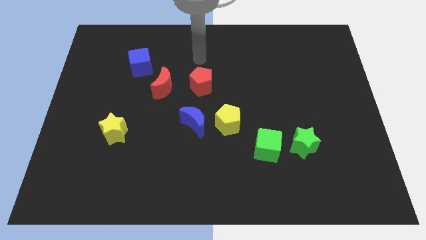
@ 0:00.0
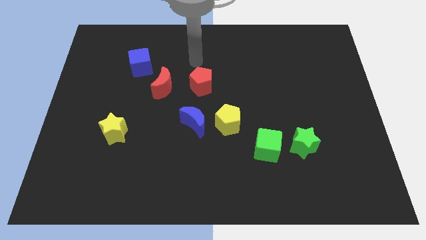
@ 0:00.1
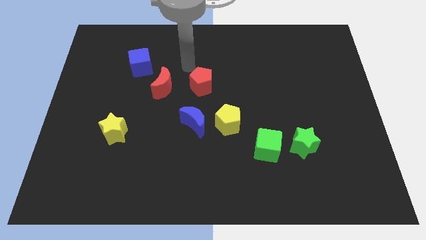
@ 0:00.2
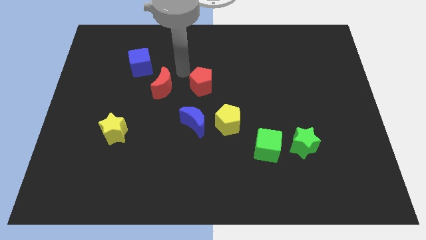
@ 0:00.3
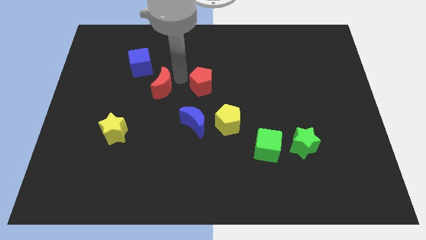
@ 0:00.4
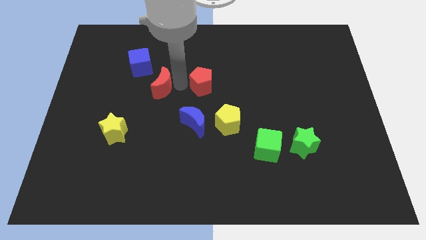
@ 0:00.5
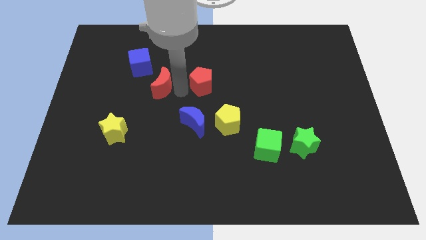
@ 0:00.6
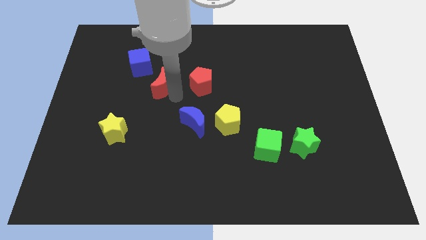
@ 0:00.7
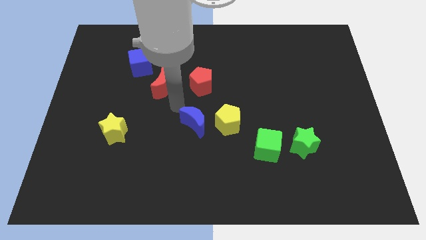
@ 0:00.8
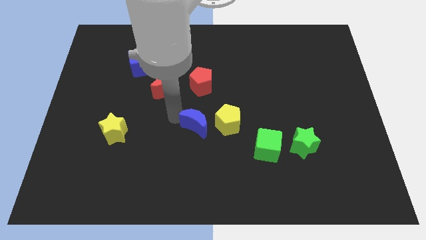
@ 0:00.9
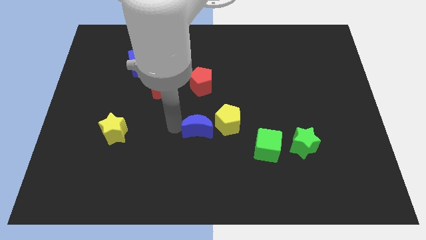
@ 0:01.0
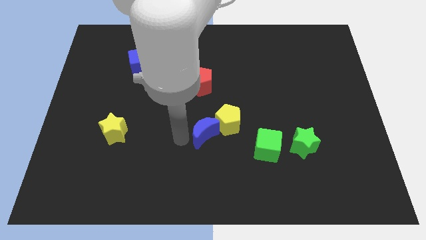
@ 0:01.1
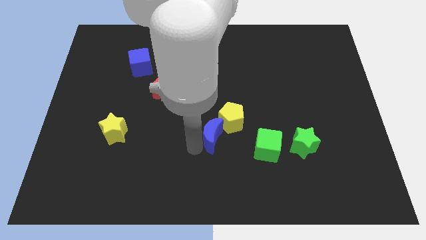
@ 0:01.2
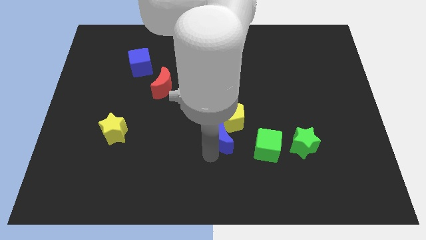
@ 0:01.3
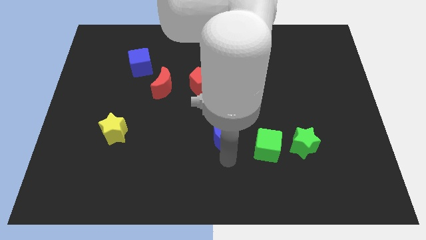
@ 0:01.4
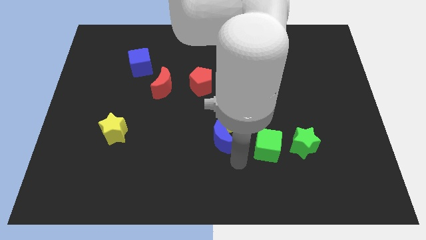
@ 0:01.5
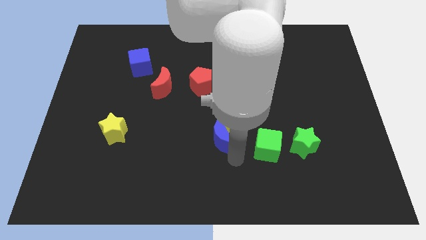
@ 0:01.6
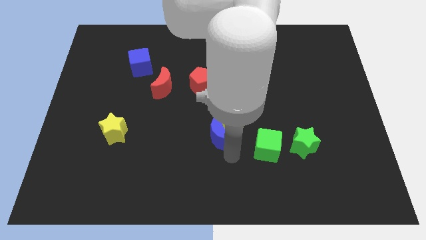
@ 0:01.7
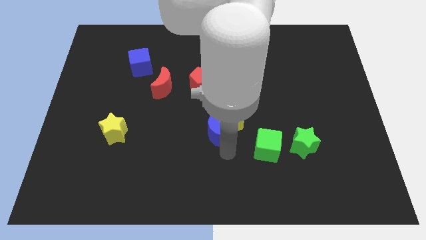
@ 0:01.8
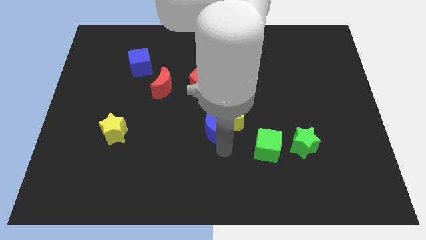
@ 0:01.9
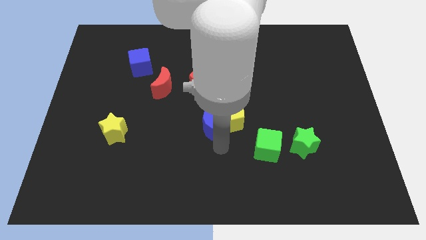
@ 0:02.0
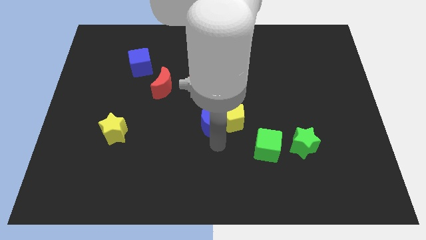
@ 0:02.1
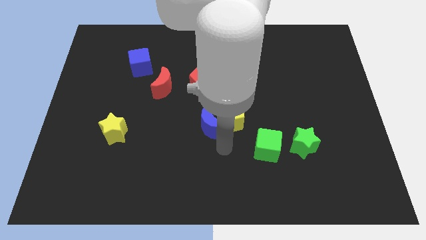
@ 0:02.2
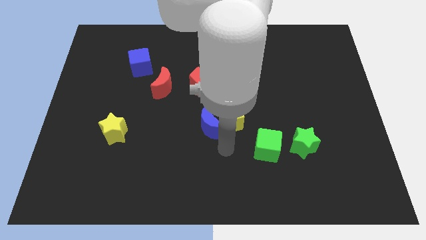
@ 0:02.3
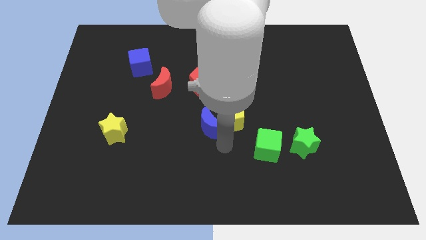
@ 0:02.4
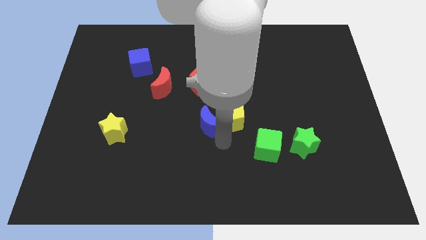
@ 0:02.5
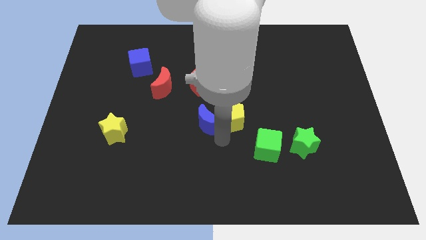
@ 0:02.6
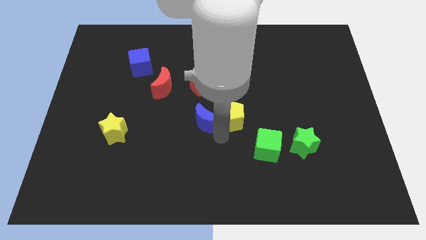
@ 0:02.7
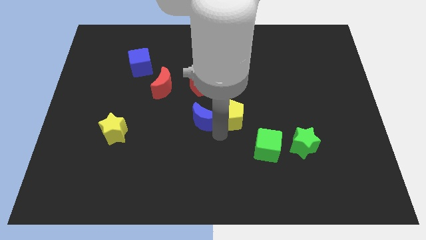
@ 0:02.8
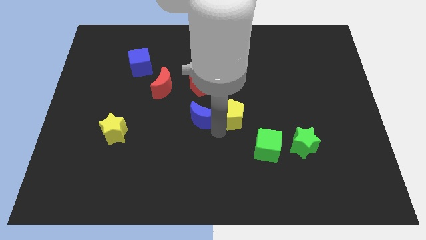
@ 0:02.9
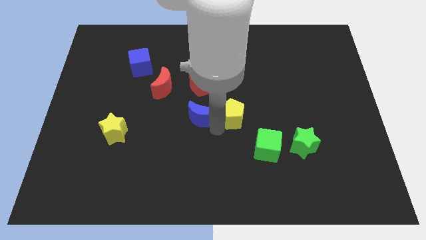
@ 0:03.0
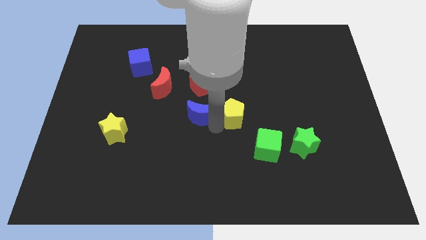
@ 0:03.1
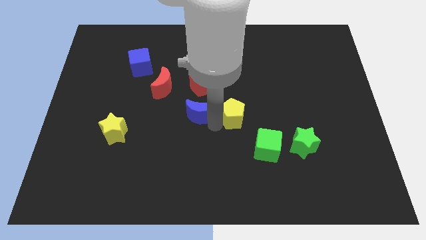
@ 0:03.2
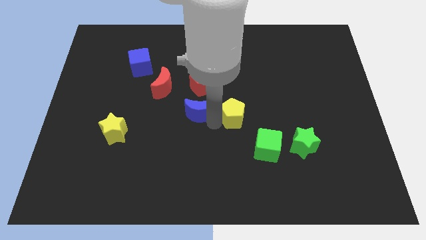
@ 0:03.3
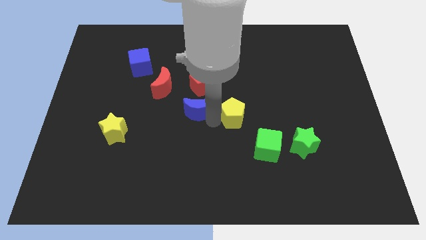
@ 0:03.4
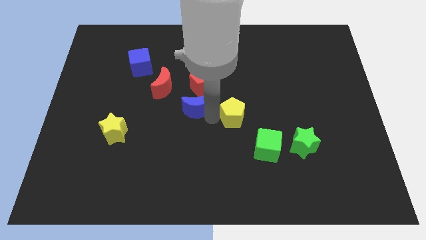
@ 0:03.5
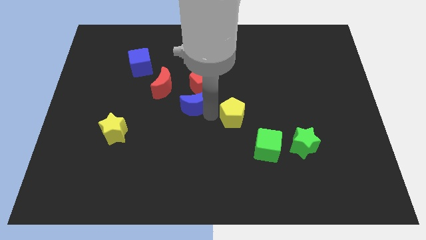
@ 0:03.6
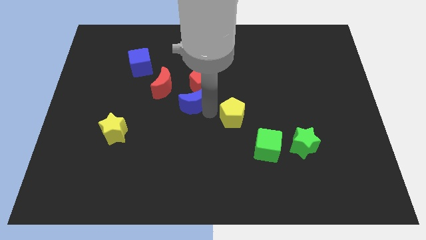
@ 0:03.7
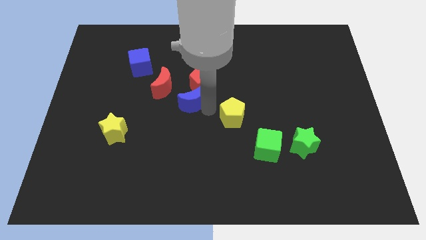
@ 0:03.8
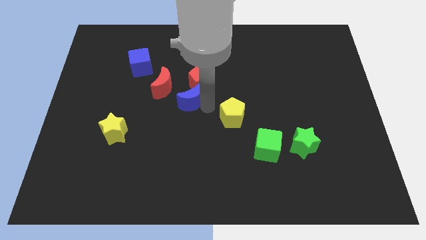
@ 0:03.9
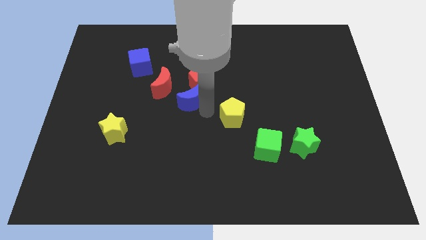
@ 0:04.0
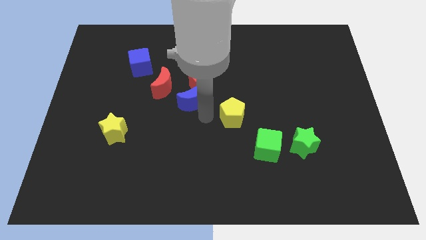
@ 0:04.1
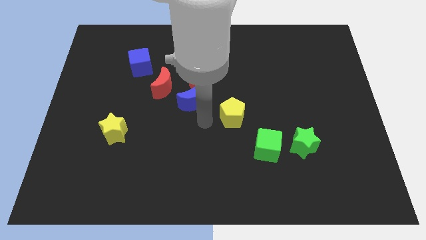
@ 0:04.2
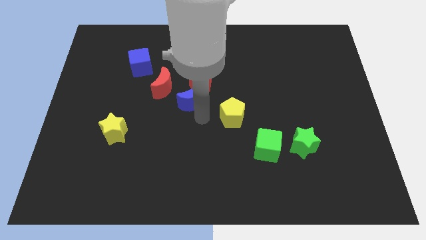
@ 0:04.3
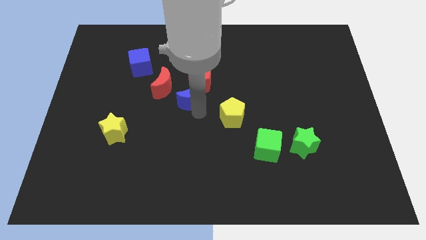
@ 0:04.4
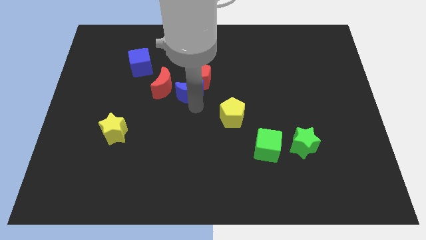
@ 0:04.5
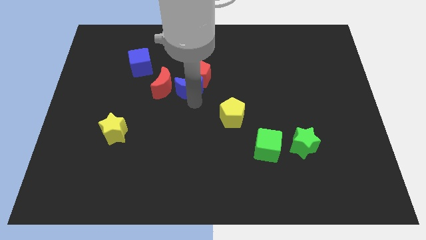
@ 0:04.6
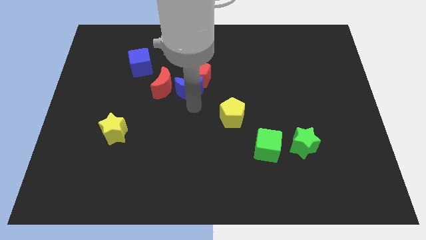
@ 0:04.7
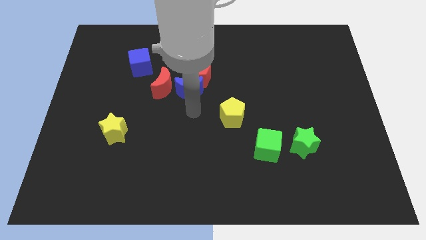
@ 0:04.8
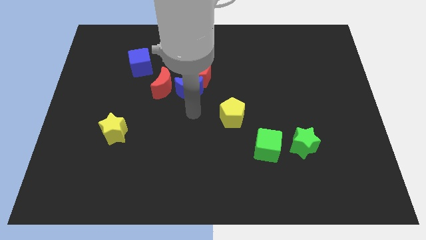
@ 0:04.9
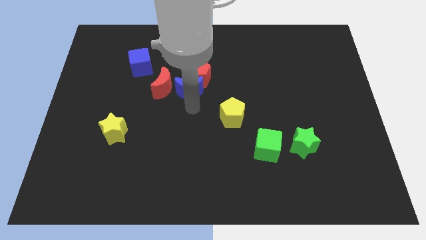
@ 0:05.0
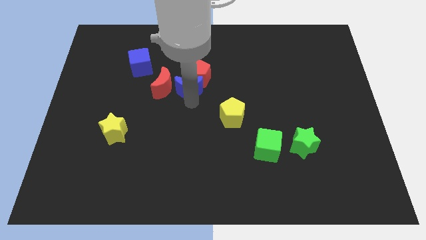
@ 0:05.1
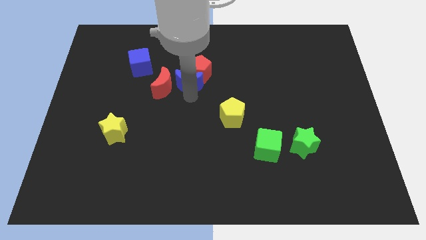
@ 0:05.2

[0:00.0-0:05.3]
push the blue moon diagonally up and to the right of the red moon

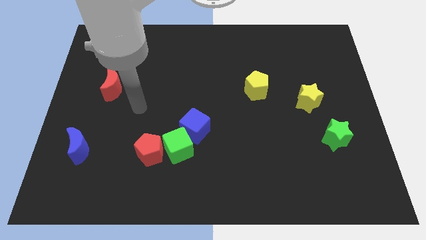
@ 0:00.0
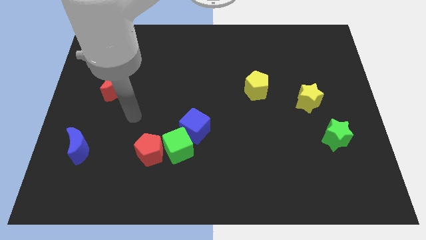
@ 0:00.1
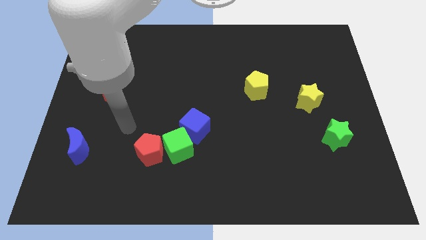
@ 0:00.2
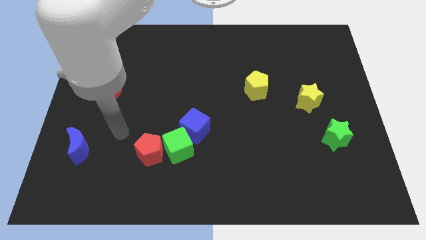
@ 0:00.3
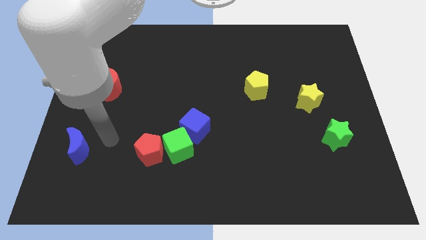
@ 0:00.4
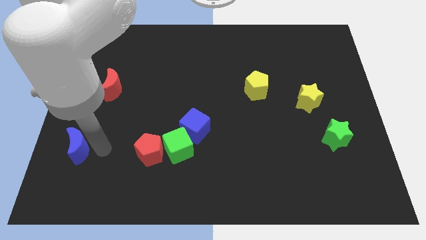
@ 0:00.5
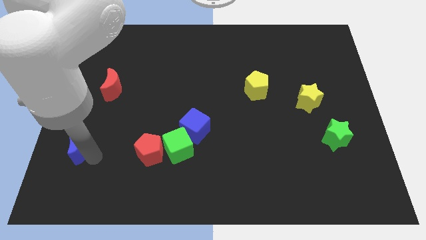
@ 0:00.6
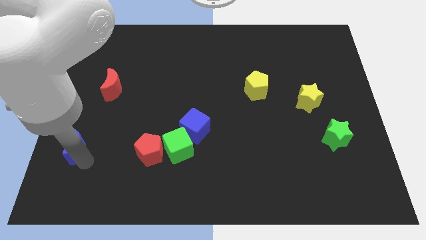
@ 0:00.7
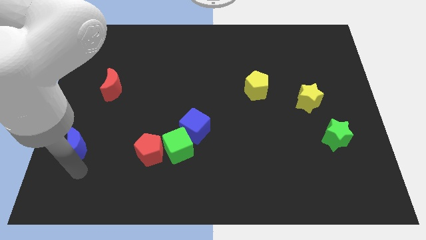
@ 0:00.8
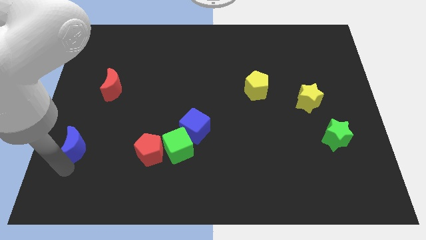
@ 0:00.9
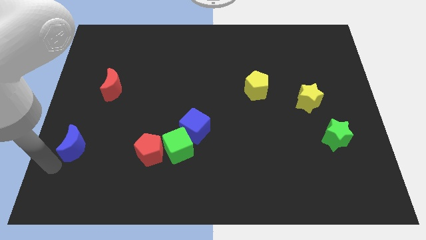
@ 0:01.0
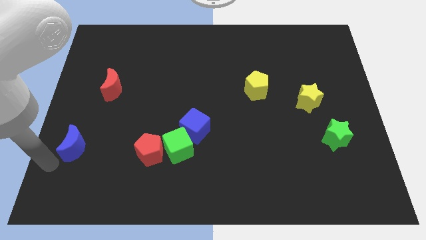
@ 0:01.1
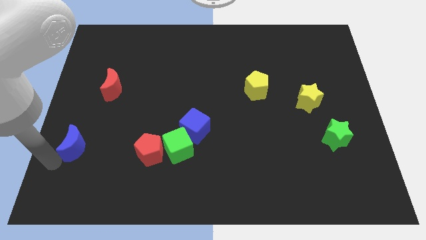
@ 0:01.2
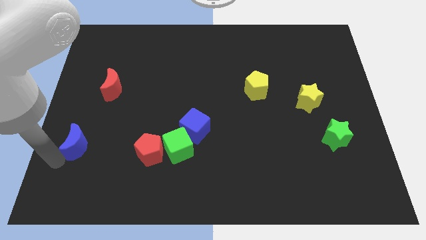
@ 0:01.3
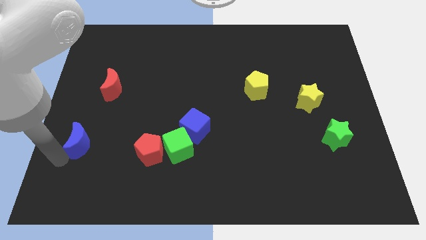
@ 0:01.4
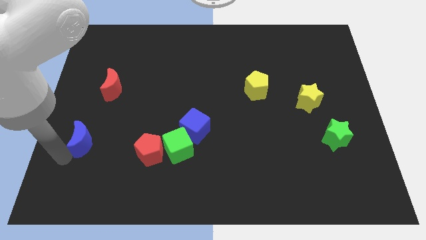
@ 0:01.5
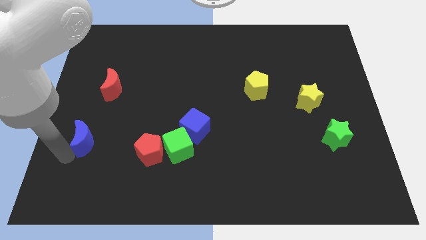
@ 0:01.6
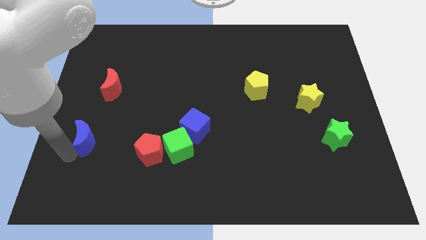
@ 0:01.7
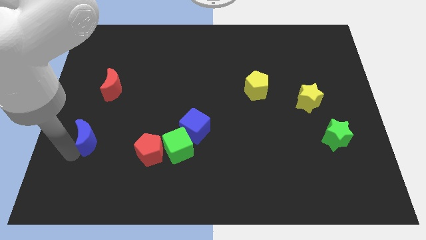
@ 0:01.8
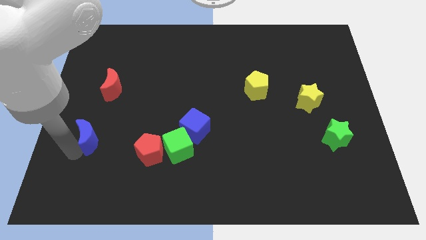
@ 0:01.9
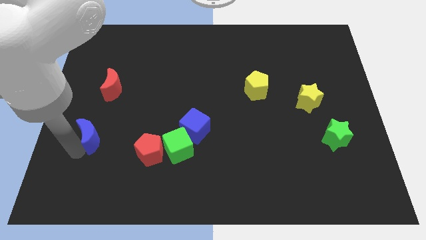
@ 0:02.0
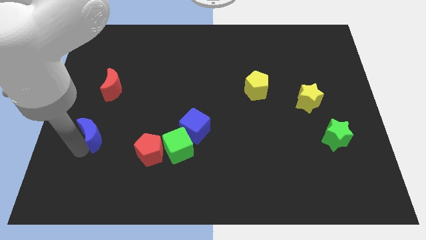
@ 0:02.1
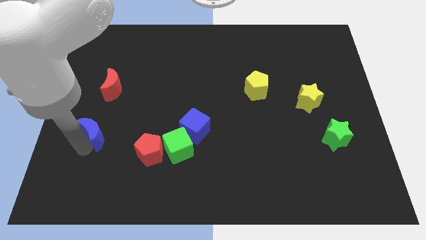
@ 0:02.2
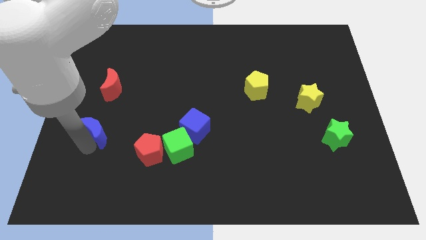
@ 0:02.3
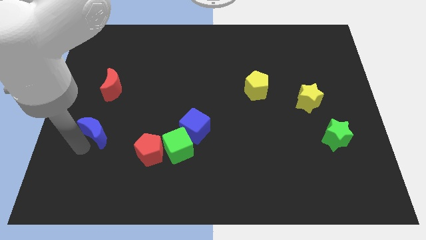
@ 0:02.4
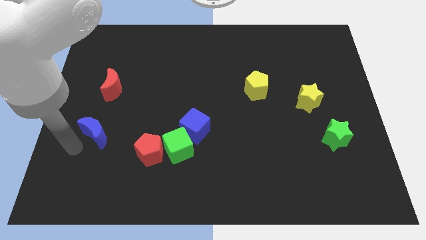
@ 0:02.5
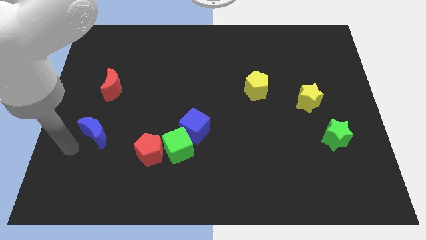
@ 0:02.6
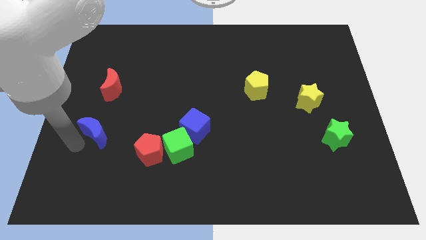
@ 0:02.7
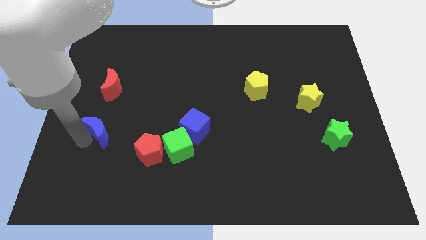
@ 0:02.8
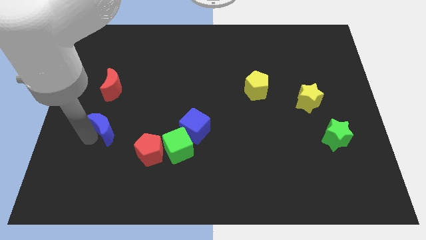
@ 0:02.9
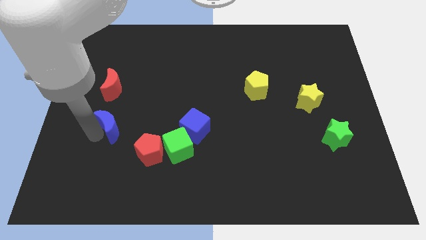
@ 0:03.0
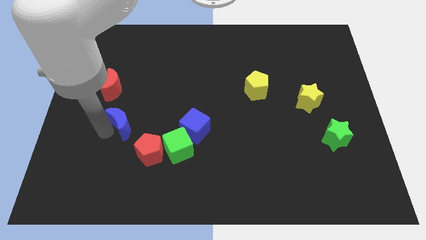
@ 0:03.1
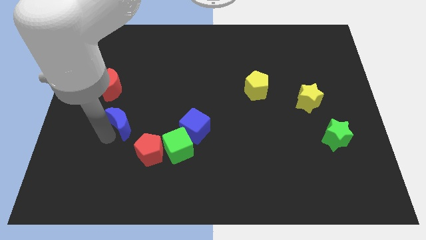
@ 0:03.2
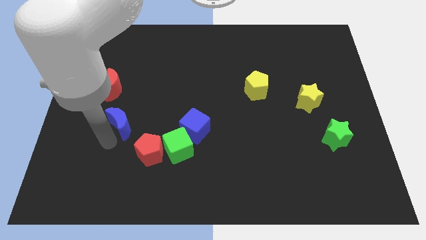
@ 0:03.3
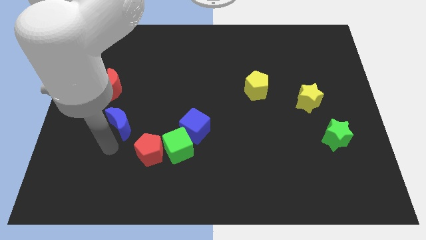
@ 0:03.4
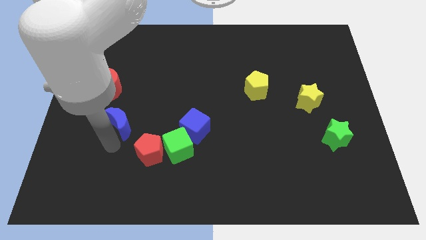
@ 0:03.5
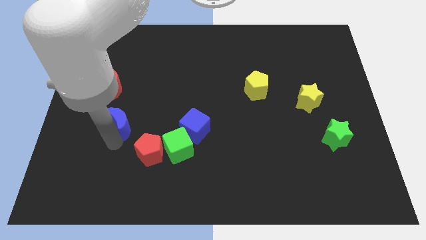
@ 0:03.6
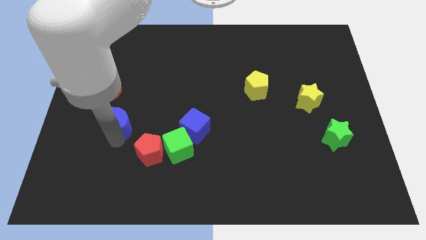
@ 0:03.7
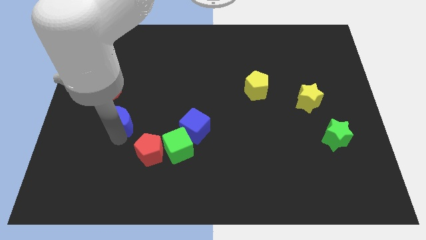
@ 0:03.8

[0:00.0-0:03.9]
move the blue moon diagonally down and to the right of the red moon
